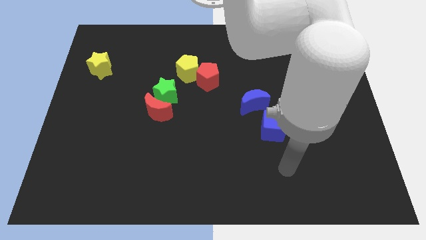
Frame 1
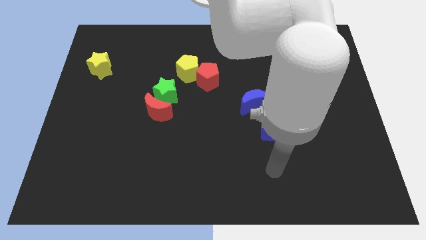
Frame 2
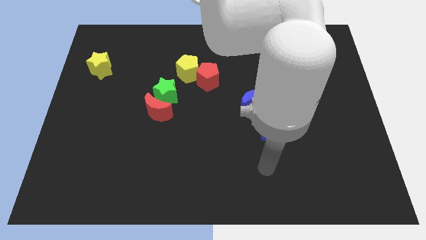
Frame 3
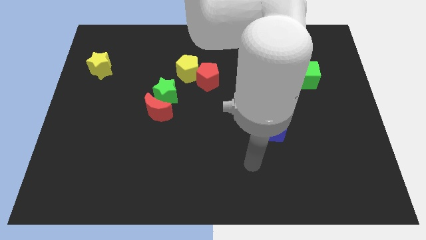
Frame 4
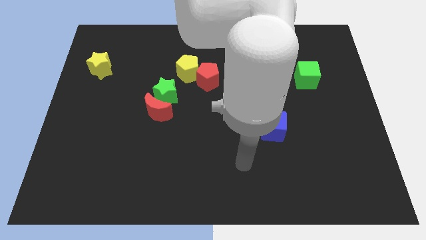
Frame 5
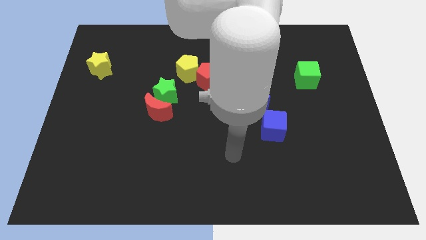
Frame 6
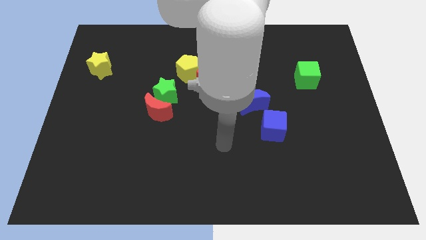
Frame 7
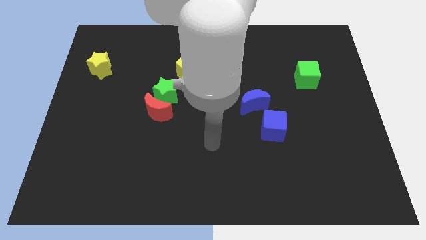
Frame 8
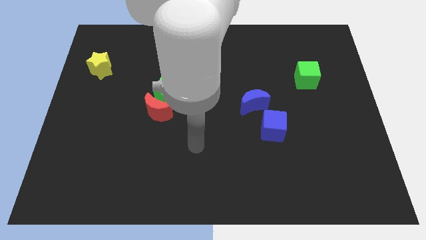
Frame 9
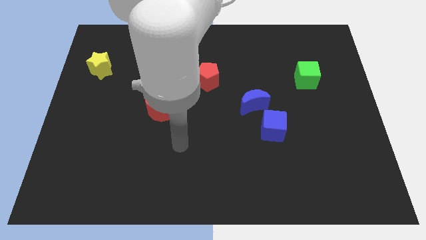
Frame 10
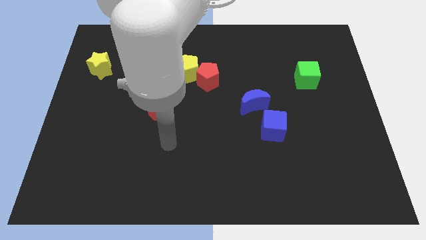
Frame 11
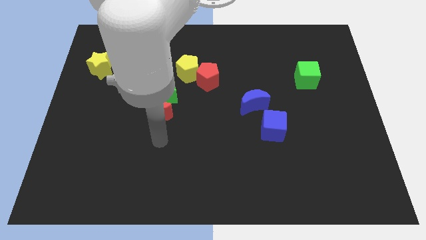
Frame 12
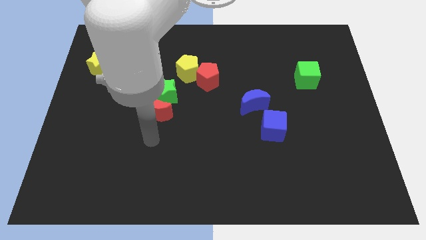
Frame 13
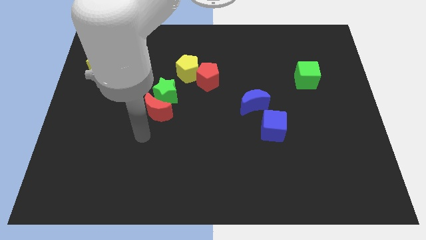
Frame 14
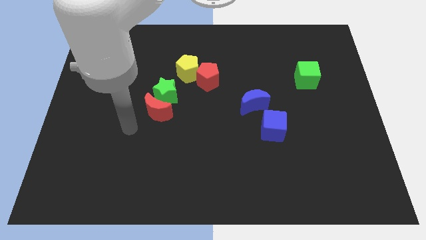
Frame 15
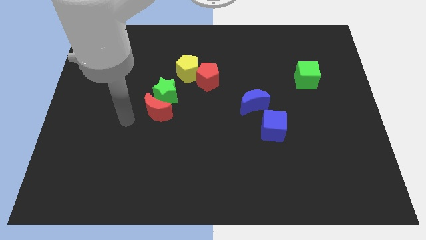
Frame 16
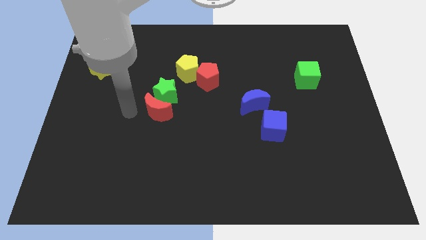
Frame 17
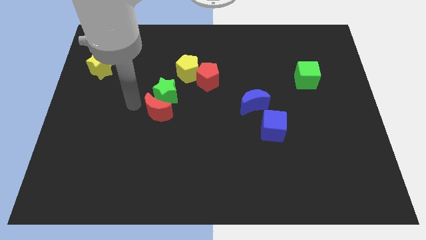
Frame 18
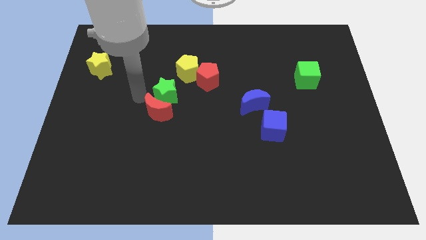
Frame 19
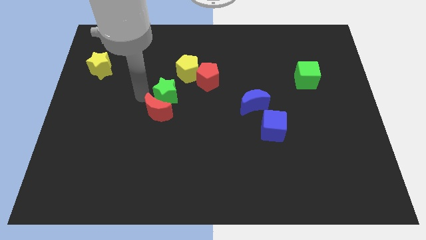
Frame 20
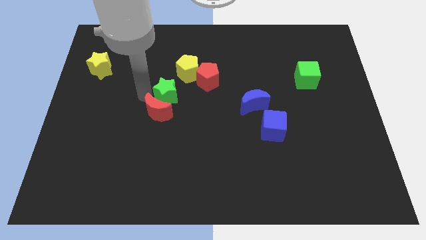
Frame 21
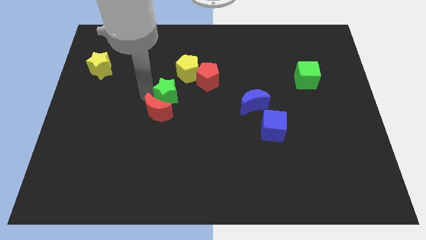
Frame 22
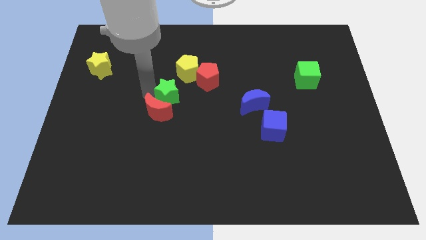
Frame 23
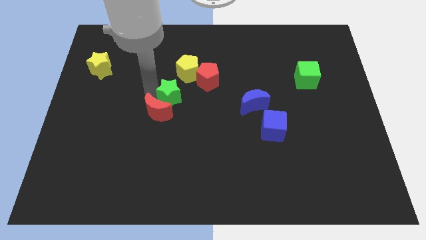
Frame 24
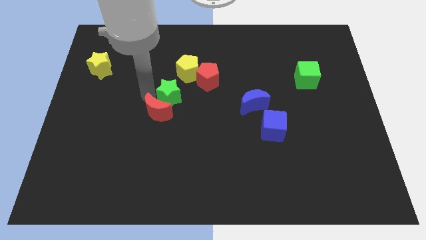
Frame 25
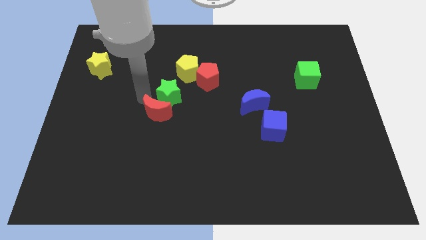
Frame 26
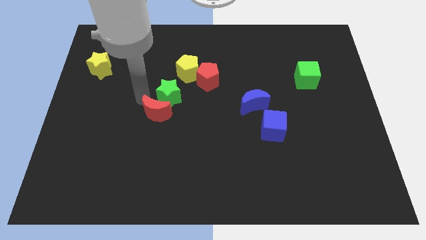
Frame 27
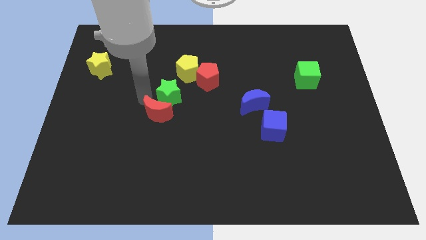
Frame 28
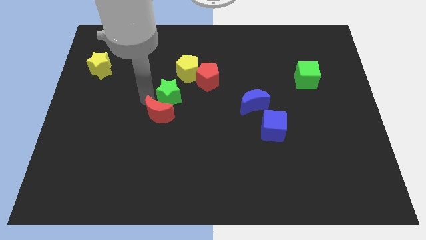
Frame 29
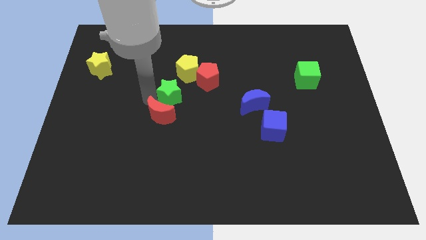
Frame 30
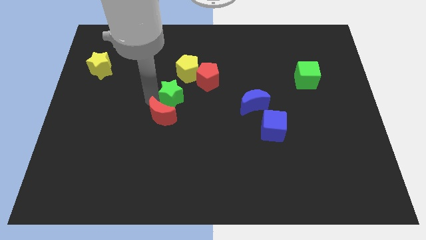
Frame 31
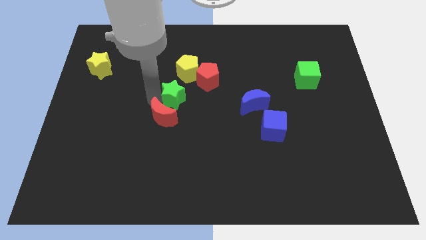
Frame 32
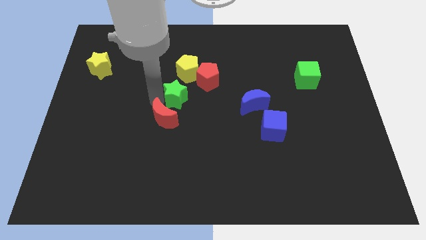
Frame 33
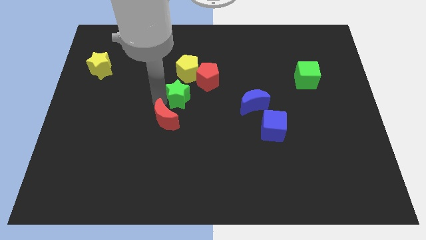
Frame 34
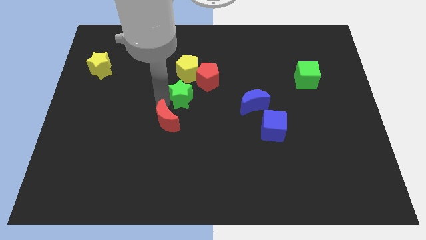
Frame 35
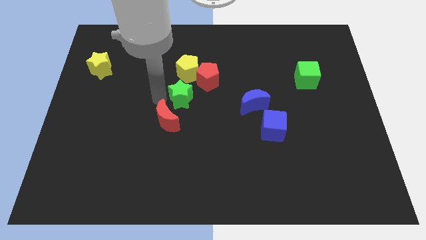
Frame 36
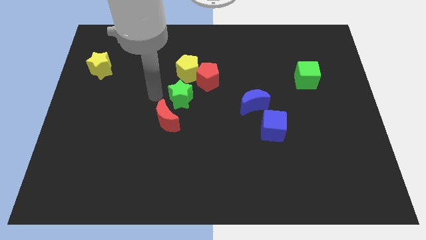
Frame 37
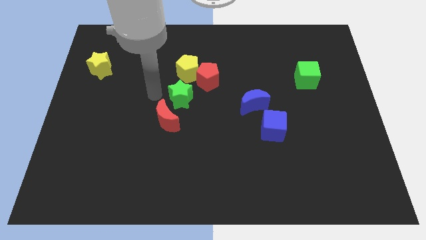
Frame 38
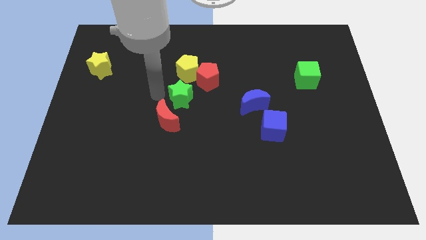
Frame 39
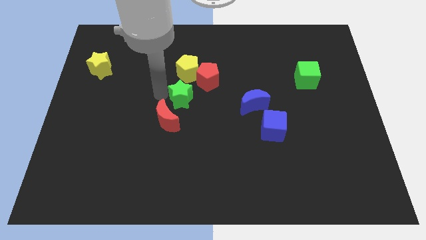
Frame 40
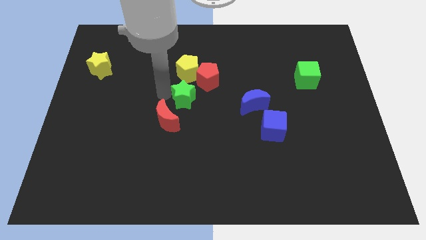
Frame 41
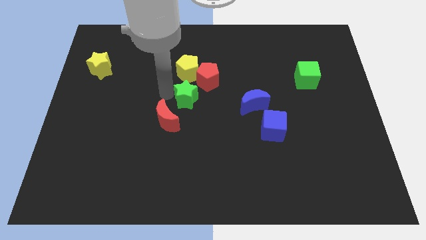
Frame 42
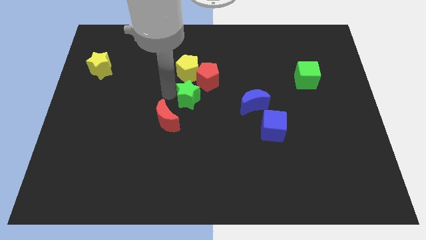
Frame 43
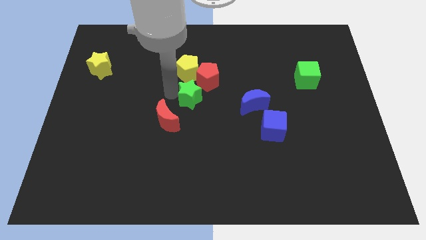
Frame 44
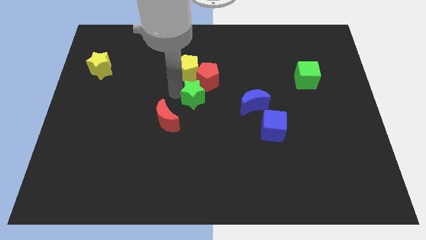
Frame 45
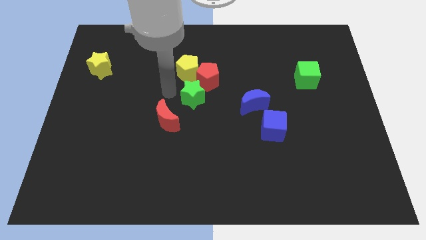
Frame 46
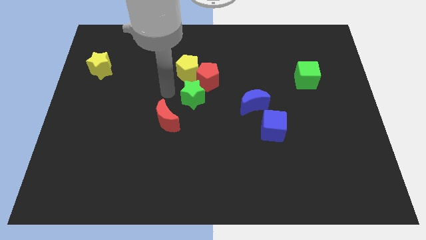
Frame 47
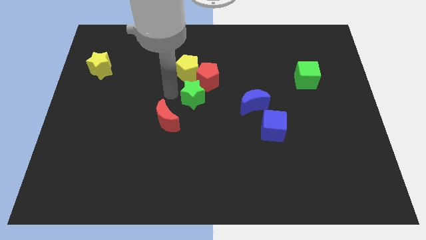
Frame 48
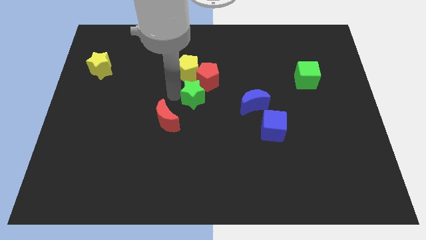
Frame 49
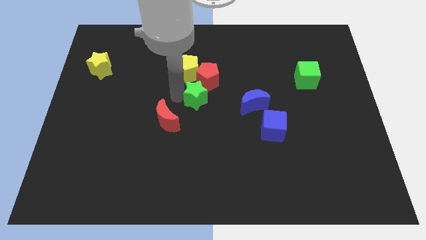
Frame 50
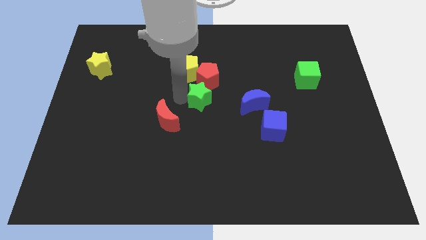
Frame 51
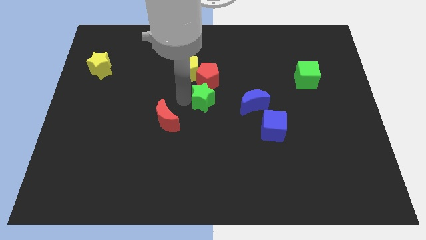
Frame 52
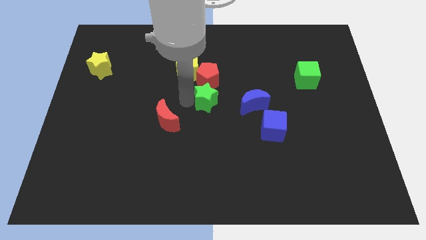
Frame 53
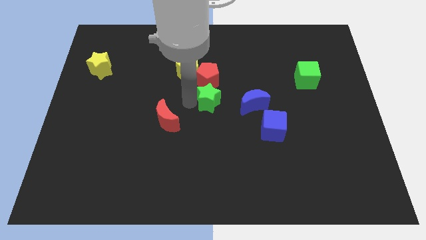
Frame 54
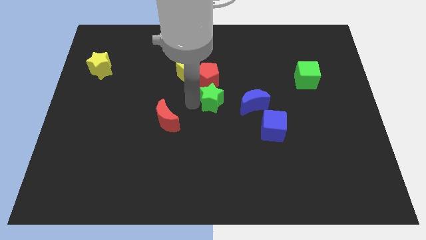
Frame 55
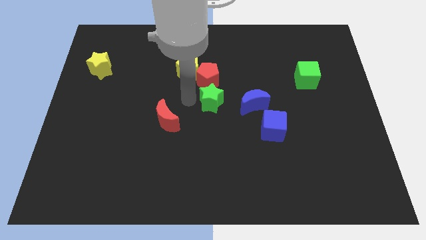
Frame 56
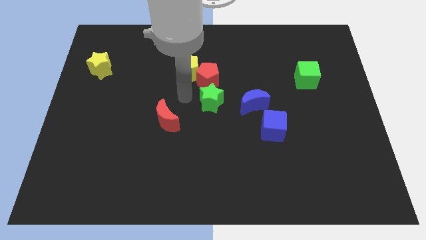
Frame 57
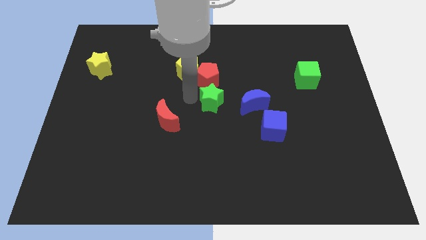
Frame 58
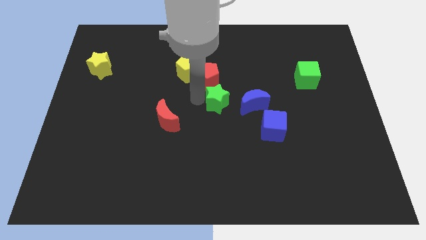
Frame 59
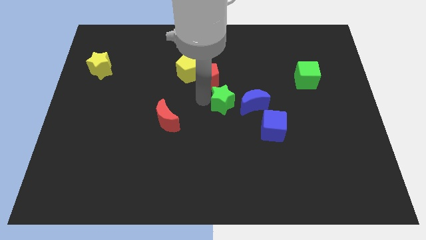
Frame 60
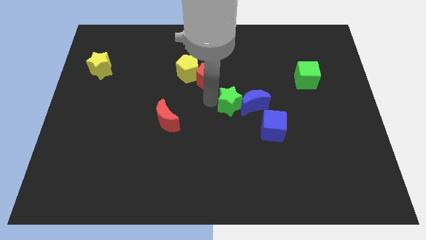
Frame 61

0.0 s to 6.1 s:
slide the green star towards the blue moon
